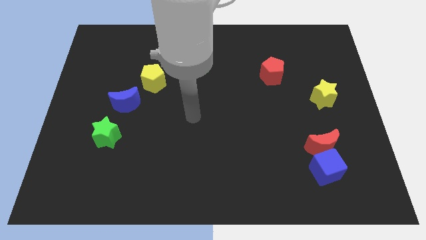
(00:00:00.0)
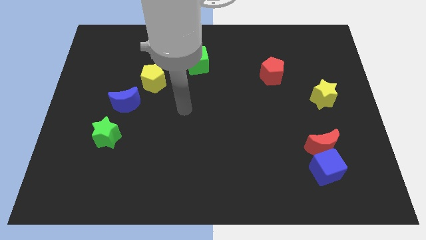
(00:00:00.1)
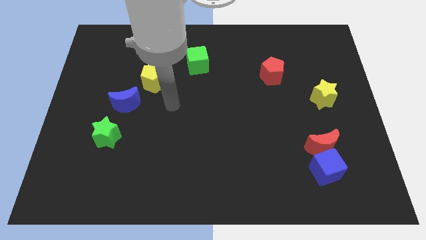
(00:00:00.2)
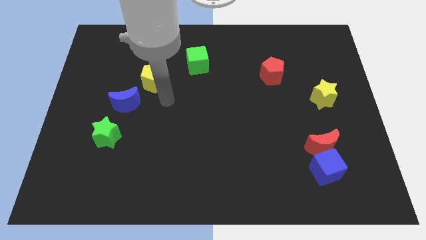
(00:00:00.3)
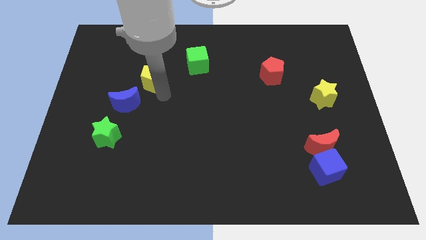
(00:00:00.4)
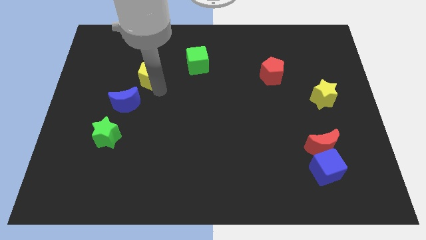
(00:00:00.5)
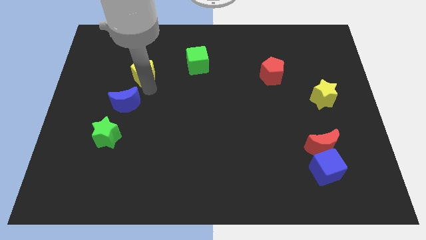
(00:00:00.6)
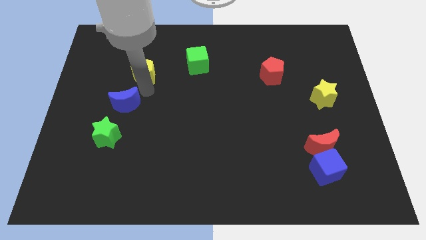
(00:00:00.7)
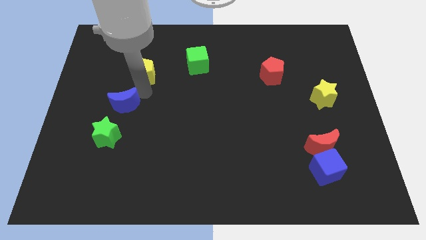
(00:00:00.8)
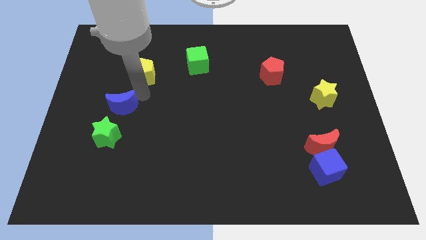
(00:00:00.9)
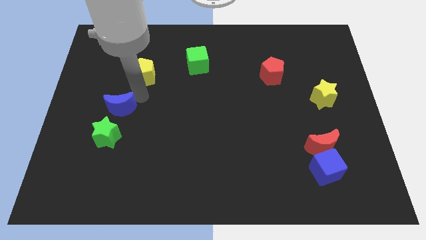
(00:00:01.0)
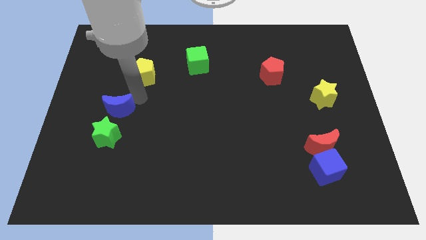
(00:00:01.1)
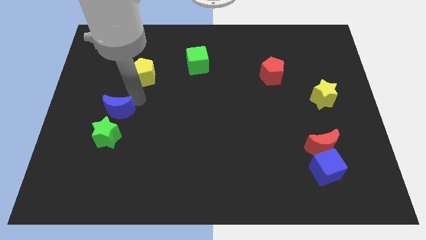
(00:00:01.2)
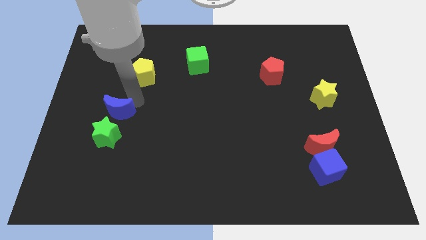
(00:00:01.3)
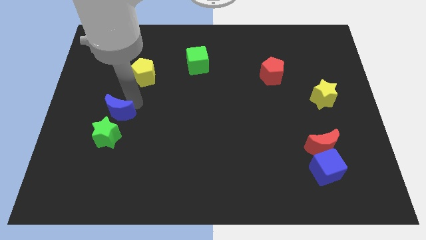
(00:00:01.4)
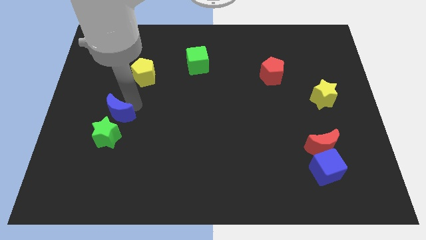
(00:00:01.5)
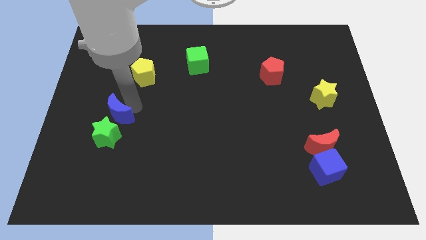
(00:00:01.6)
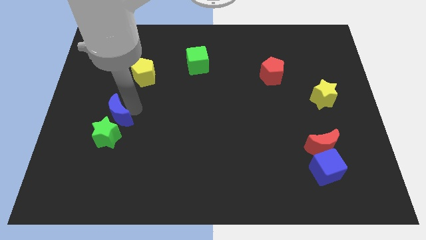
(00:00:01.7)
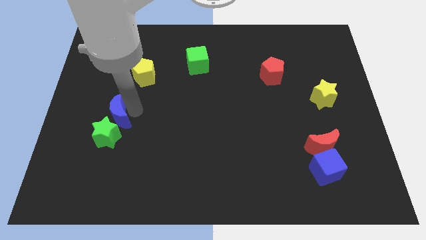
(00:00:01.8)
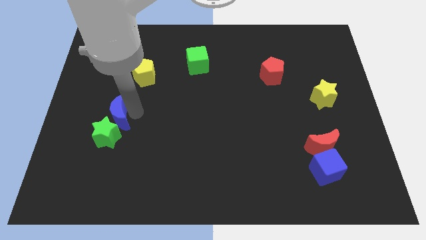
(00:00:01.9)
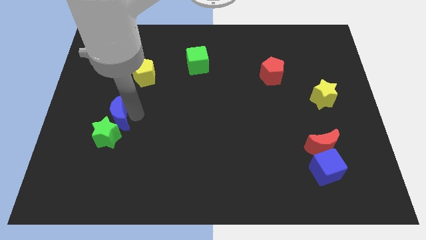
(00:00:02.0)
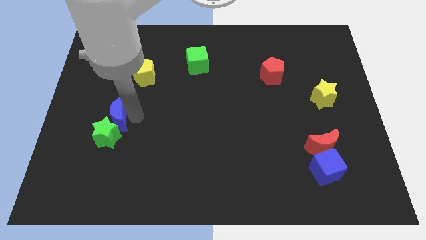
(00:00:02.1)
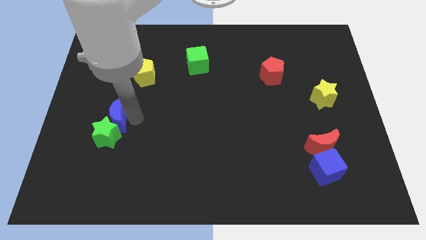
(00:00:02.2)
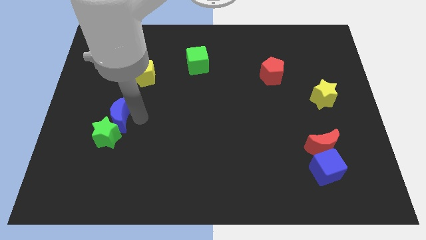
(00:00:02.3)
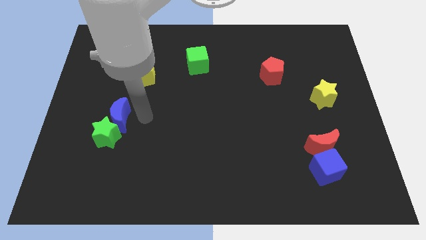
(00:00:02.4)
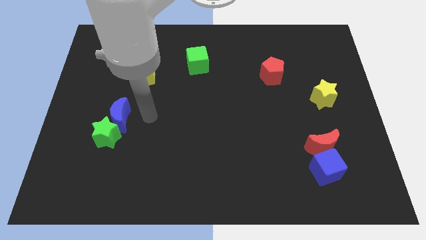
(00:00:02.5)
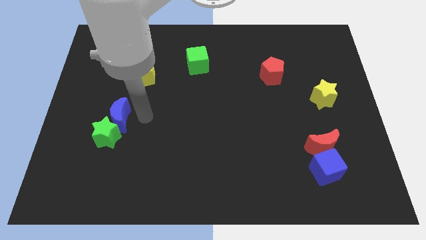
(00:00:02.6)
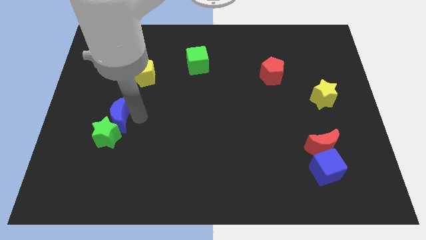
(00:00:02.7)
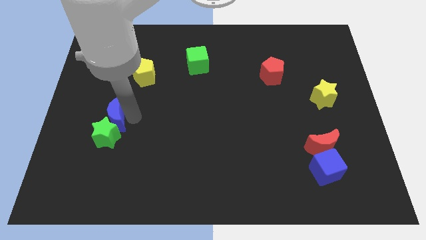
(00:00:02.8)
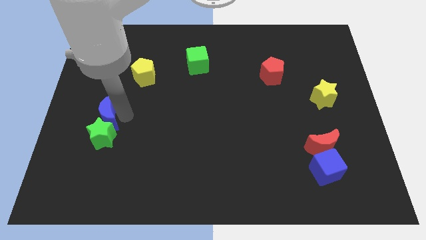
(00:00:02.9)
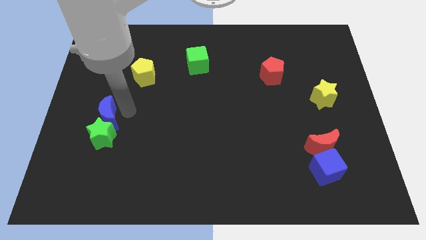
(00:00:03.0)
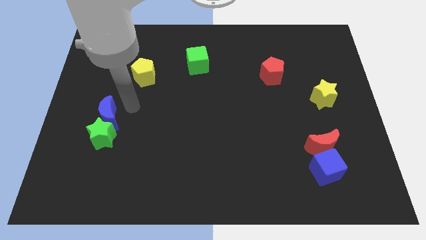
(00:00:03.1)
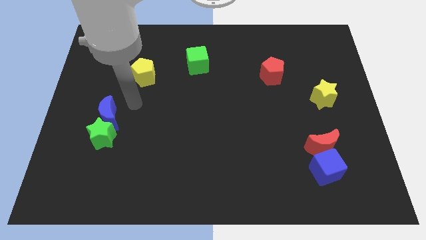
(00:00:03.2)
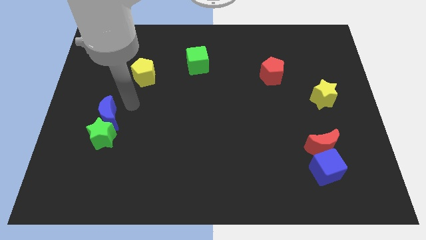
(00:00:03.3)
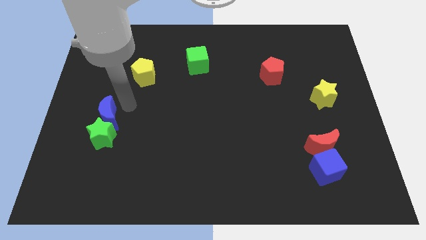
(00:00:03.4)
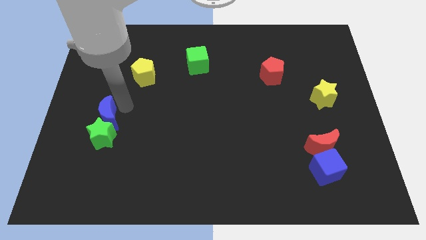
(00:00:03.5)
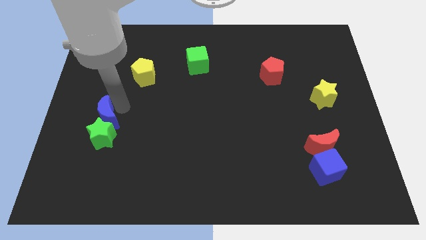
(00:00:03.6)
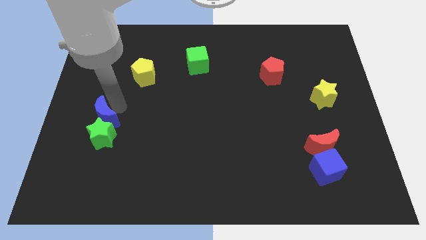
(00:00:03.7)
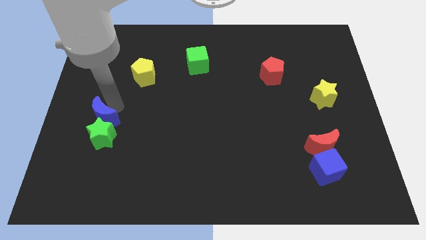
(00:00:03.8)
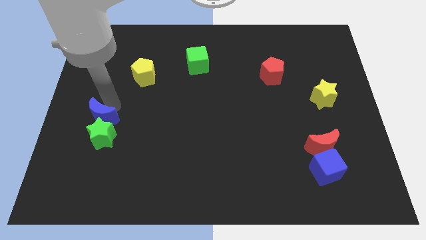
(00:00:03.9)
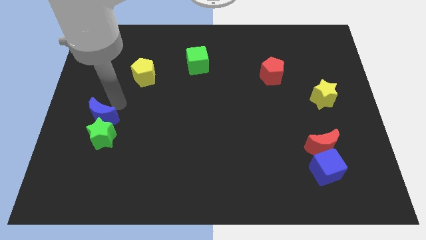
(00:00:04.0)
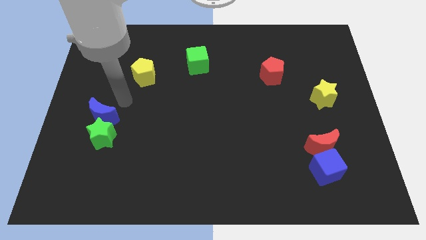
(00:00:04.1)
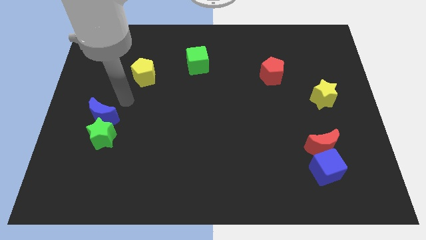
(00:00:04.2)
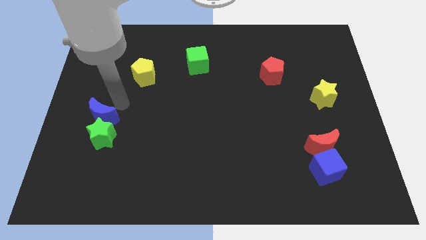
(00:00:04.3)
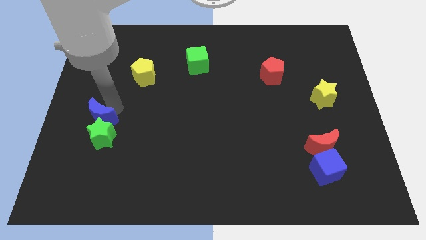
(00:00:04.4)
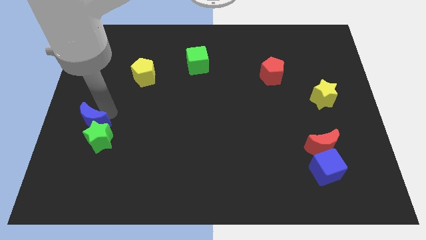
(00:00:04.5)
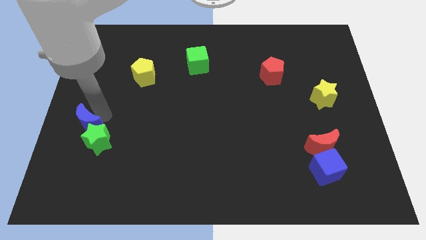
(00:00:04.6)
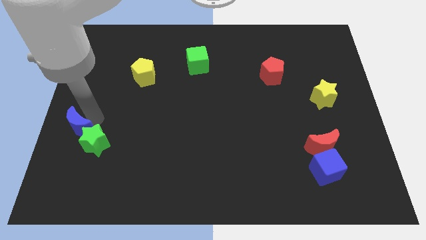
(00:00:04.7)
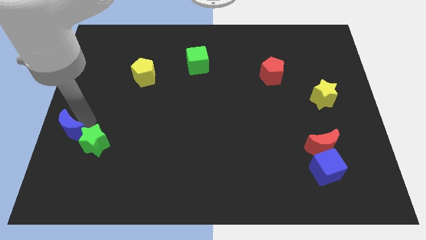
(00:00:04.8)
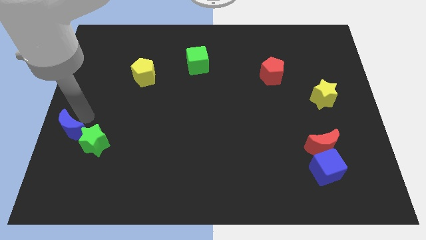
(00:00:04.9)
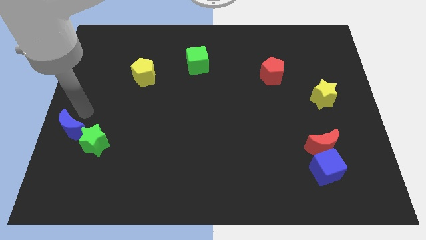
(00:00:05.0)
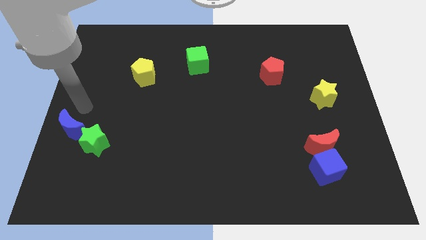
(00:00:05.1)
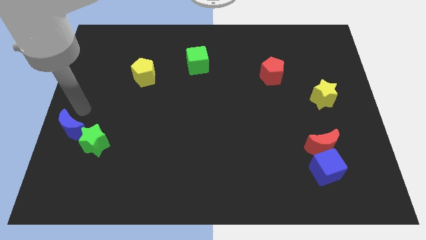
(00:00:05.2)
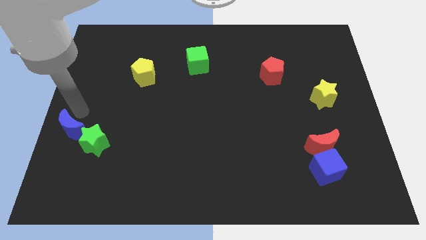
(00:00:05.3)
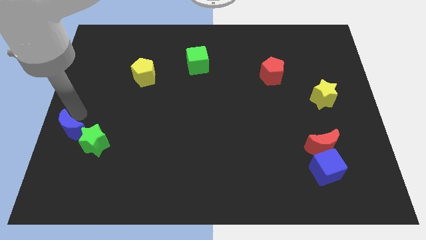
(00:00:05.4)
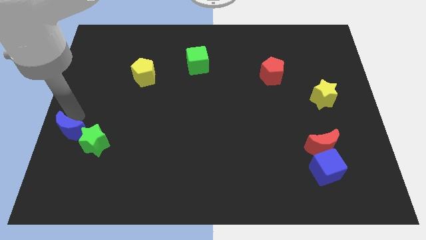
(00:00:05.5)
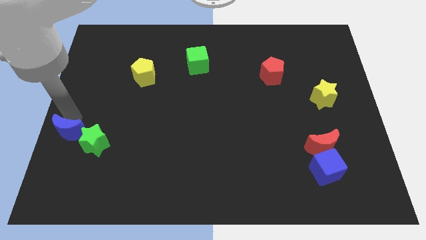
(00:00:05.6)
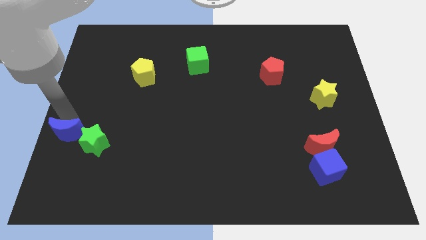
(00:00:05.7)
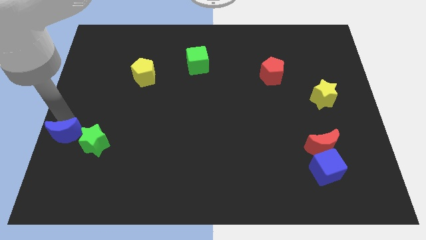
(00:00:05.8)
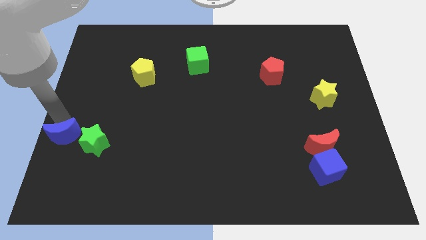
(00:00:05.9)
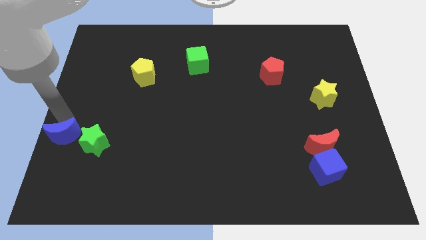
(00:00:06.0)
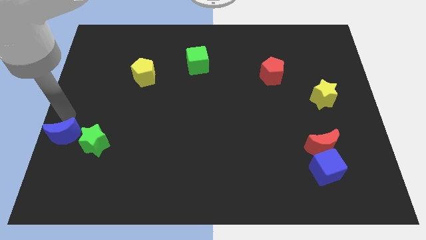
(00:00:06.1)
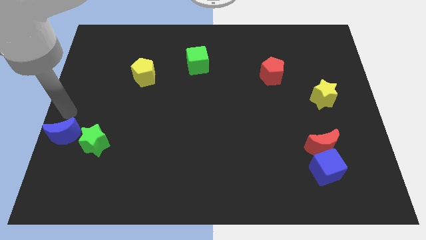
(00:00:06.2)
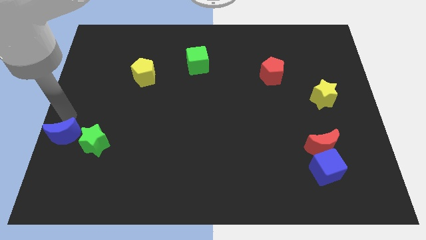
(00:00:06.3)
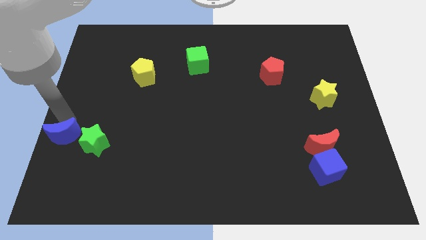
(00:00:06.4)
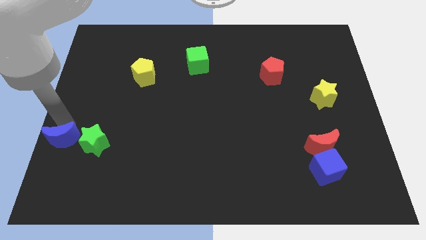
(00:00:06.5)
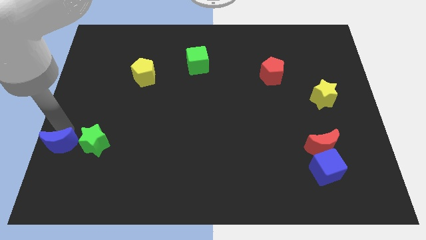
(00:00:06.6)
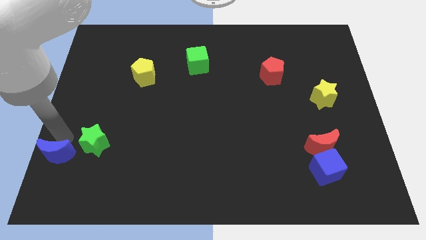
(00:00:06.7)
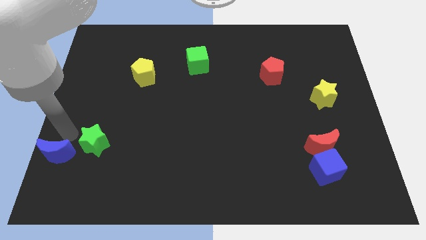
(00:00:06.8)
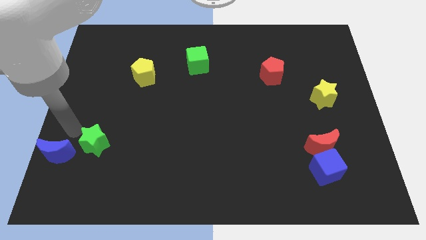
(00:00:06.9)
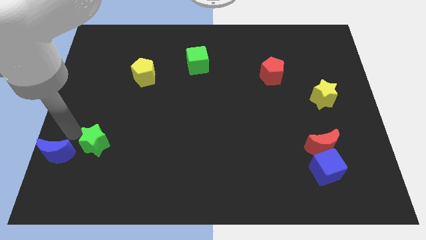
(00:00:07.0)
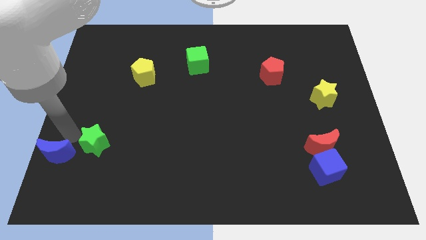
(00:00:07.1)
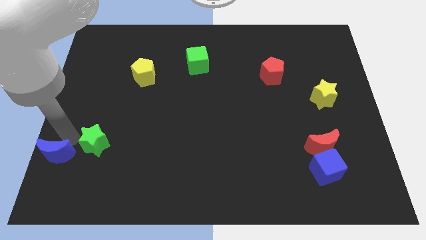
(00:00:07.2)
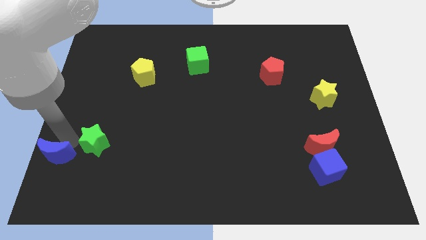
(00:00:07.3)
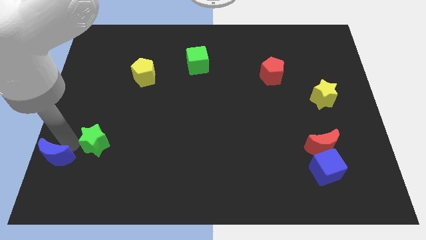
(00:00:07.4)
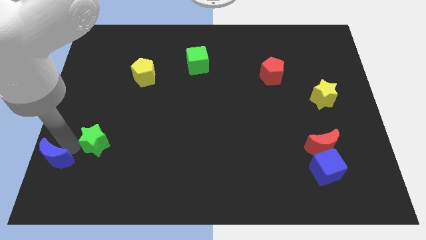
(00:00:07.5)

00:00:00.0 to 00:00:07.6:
slide the blue moon to the bottom left corner

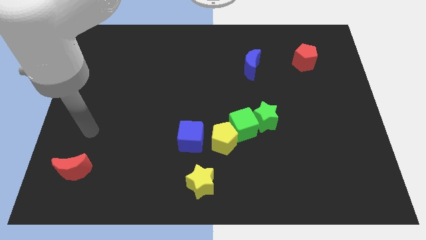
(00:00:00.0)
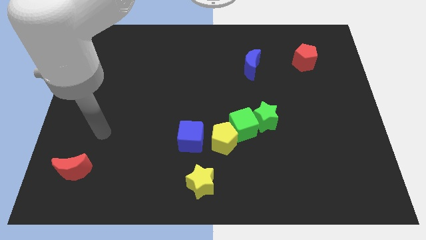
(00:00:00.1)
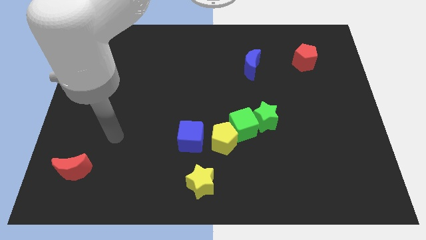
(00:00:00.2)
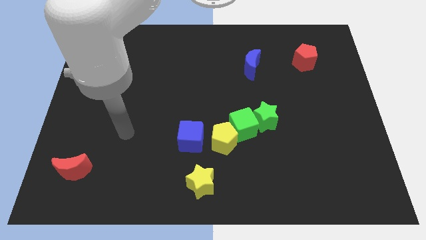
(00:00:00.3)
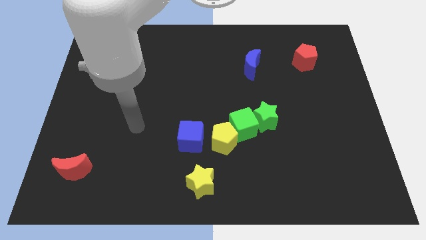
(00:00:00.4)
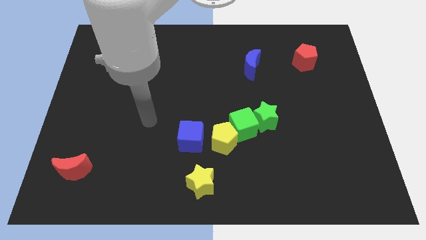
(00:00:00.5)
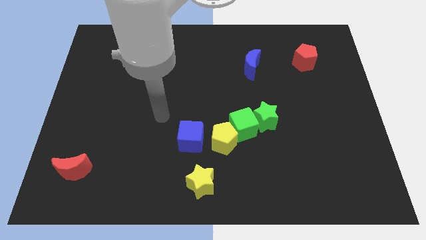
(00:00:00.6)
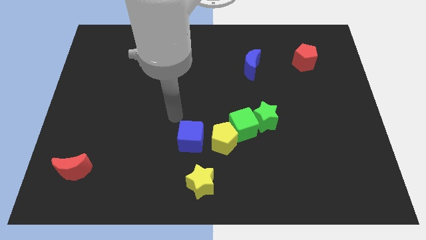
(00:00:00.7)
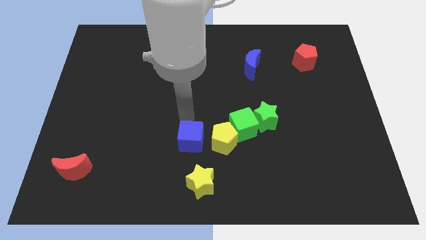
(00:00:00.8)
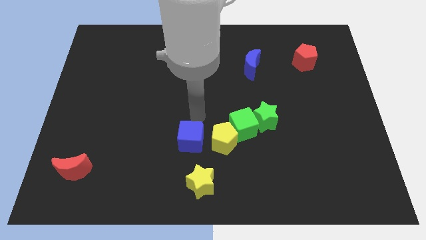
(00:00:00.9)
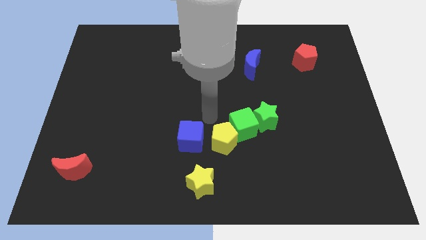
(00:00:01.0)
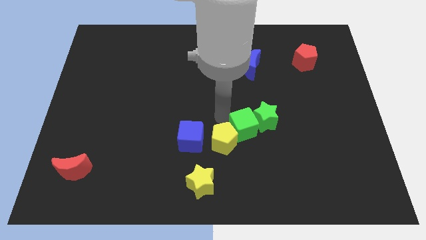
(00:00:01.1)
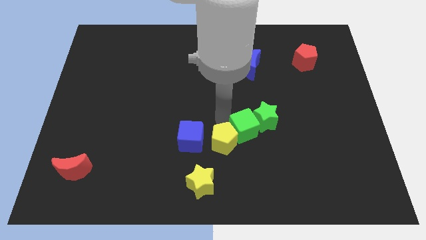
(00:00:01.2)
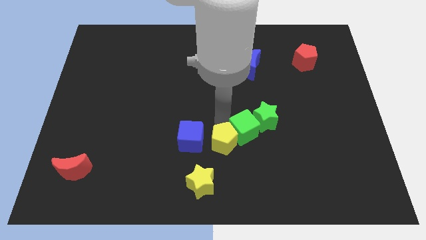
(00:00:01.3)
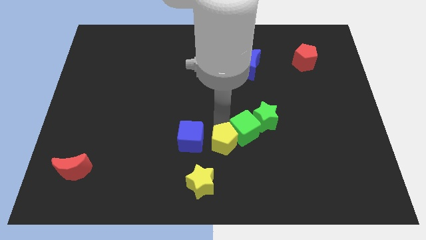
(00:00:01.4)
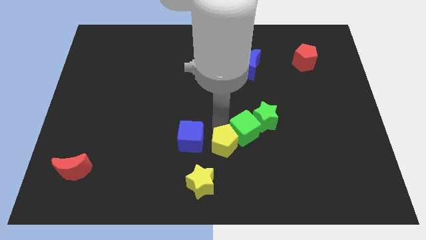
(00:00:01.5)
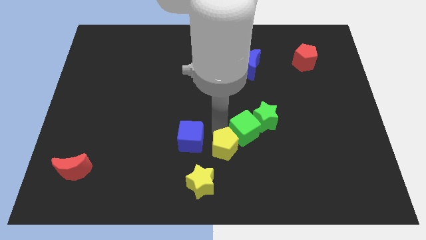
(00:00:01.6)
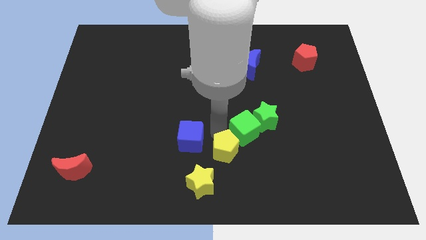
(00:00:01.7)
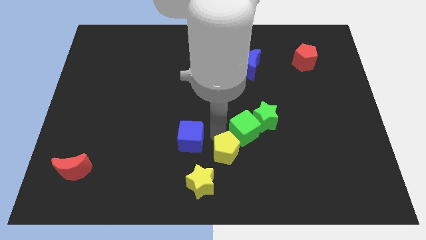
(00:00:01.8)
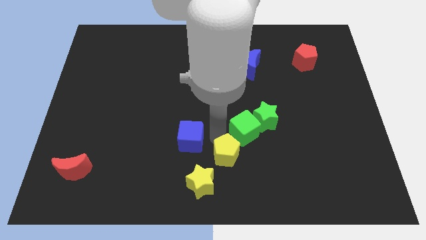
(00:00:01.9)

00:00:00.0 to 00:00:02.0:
slide the yellow pentagon to the bottom side
